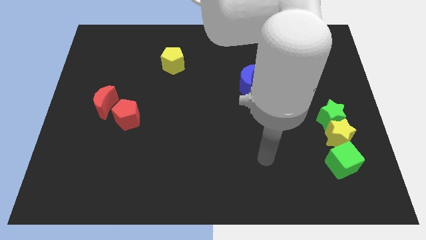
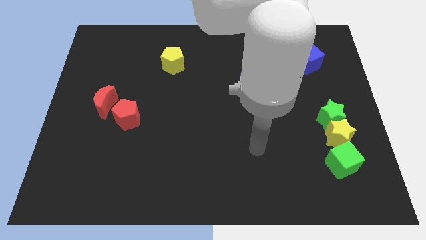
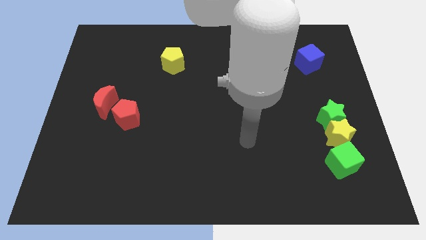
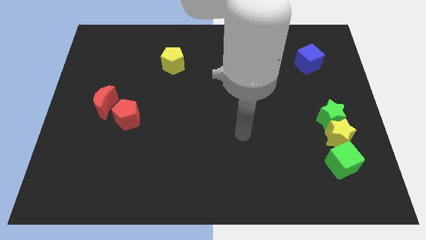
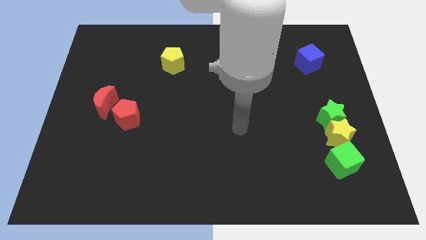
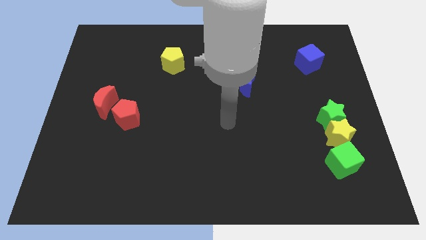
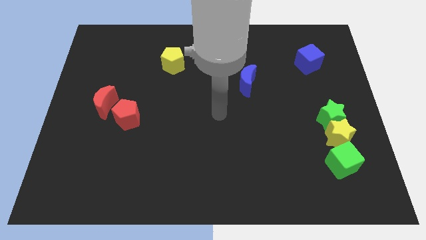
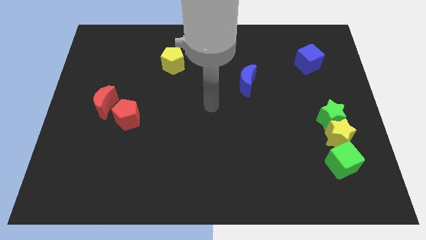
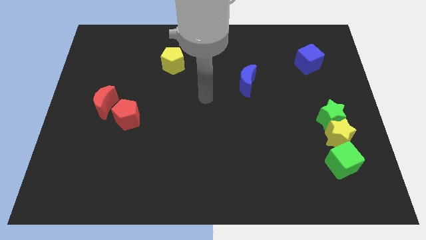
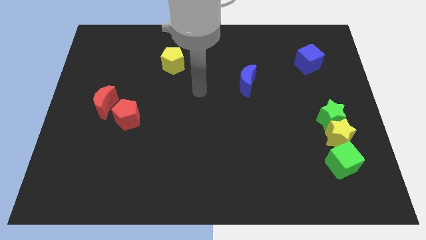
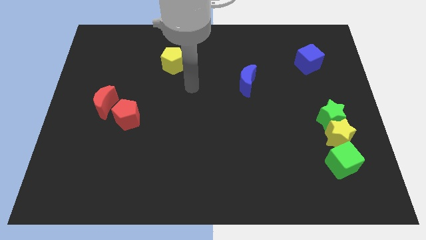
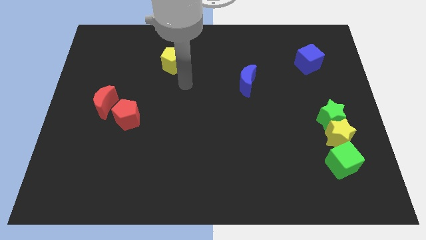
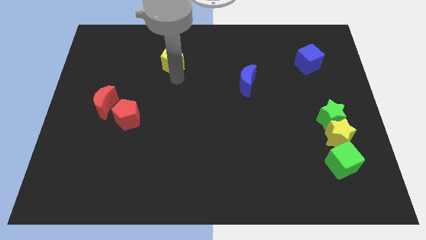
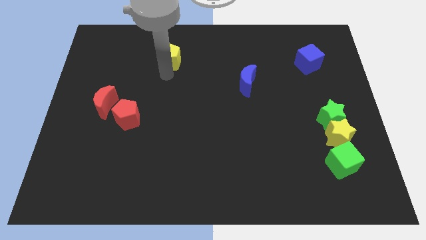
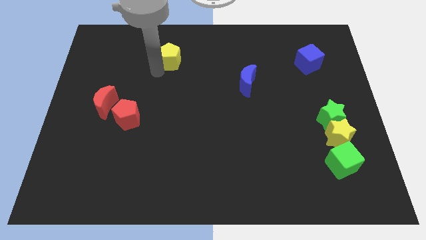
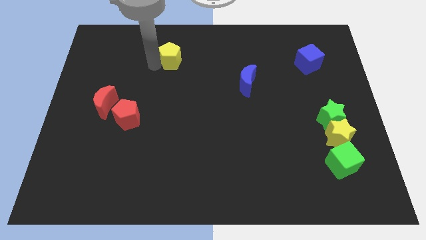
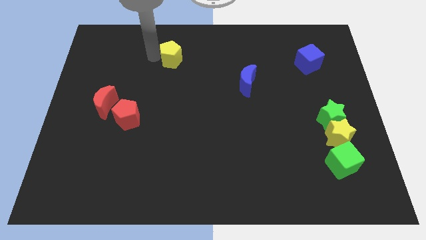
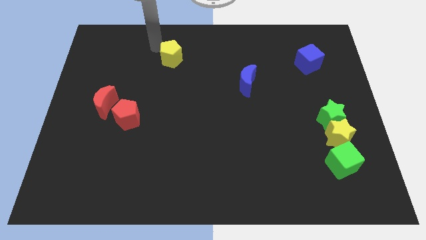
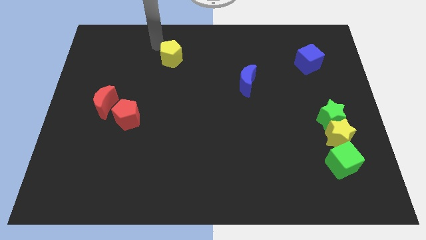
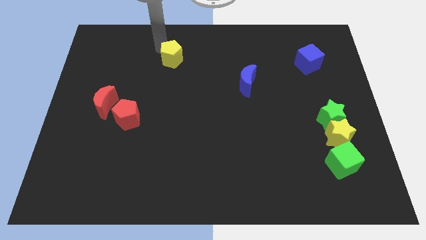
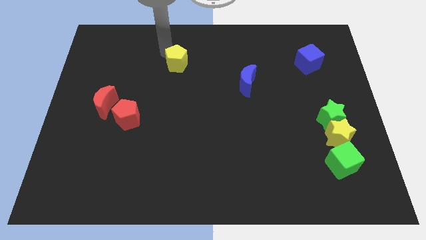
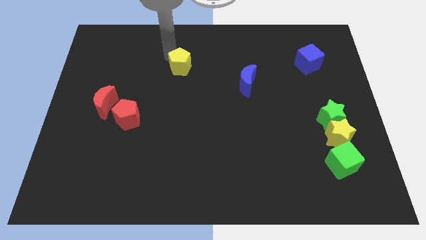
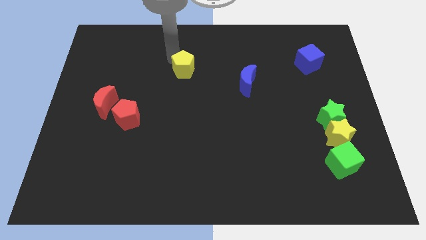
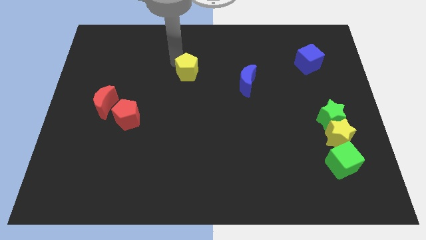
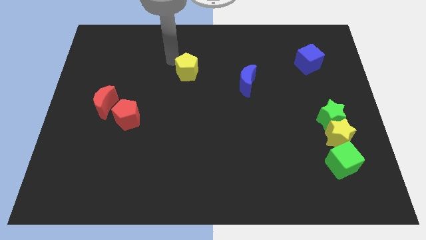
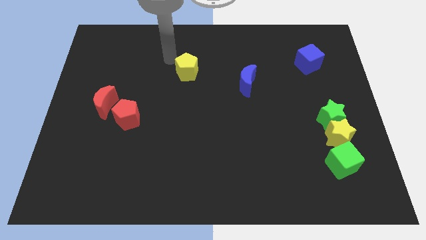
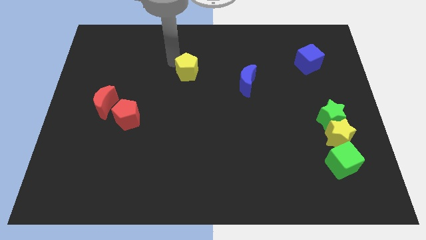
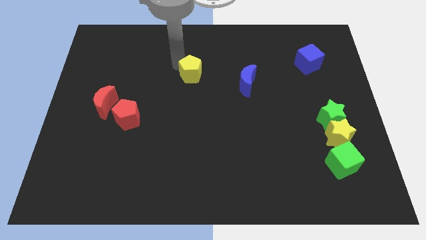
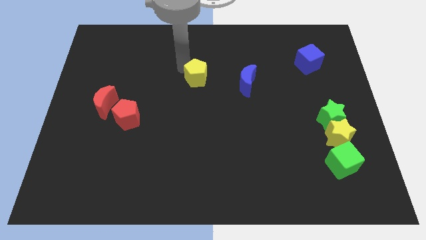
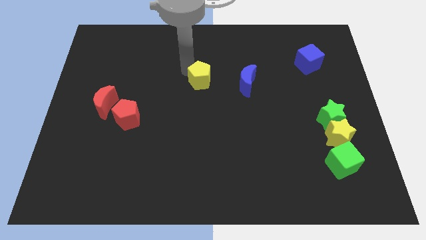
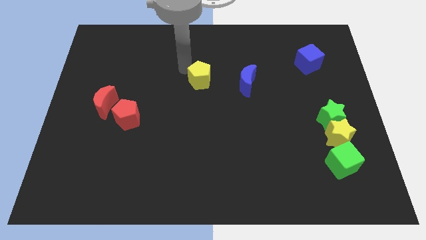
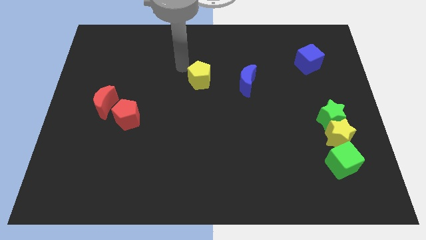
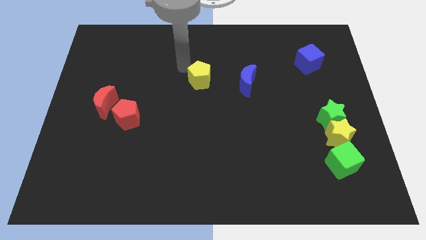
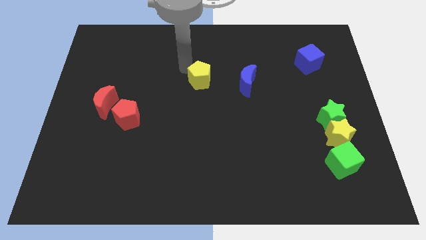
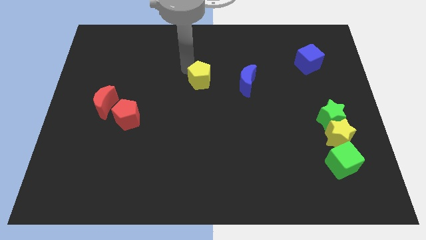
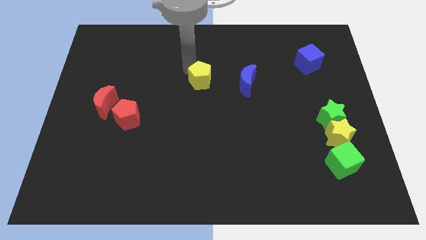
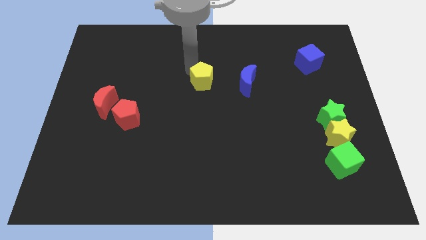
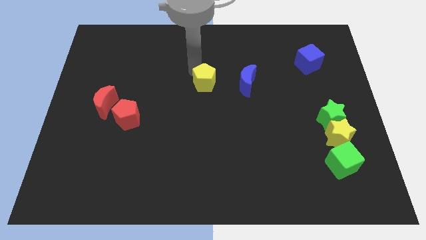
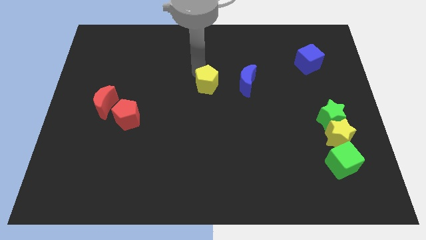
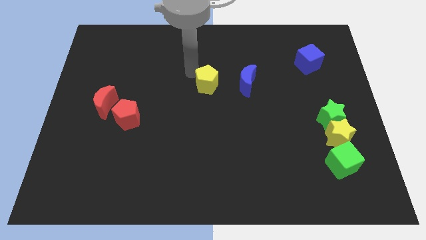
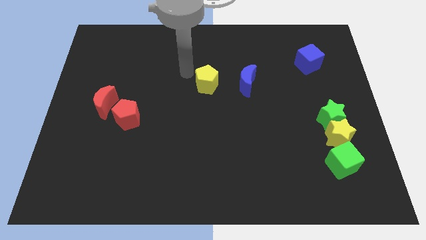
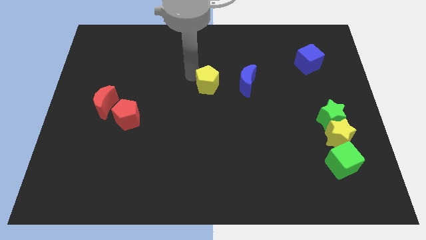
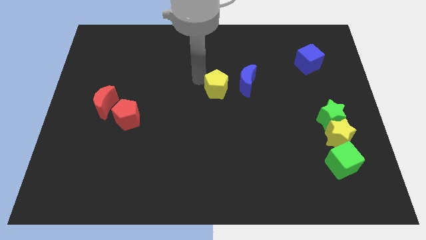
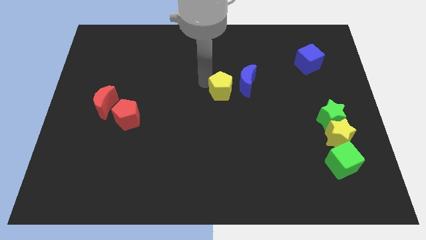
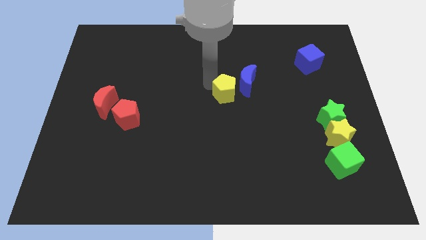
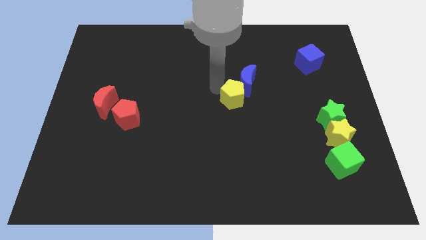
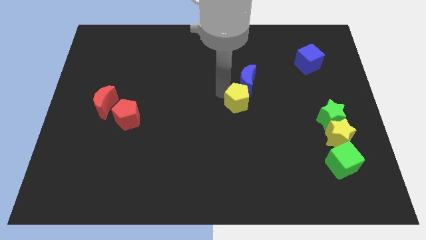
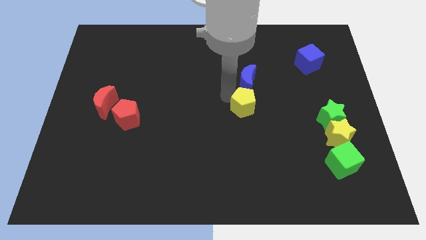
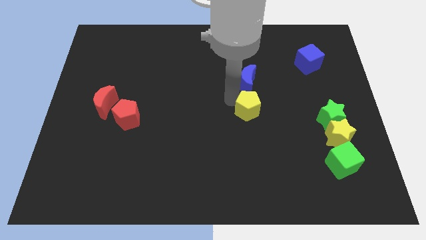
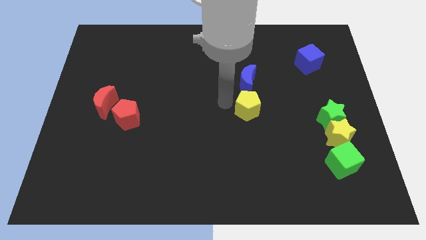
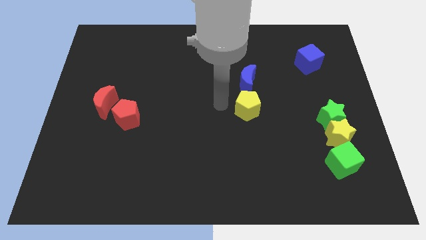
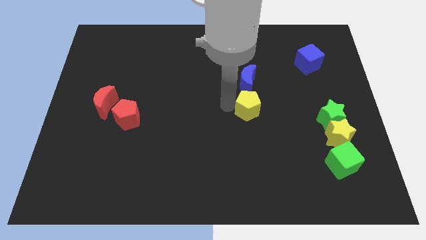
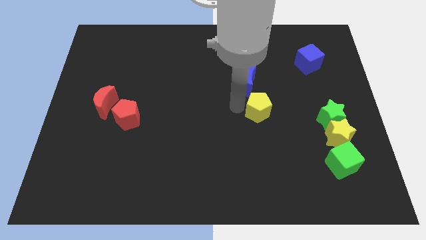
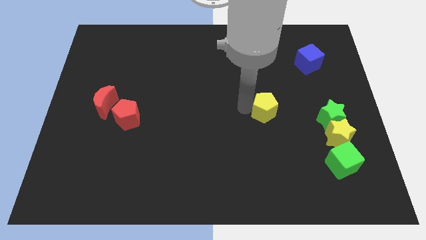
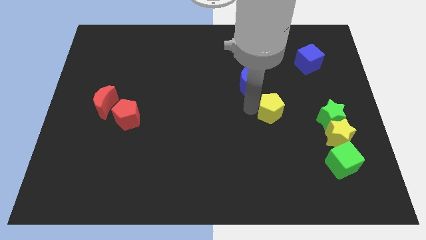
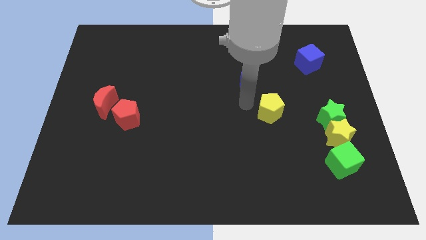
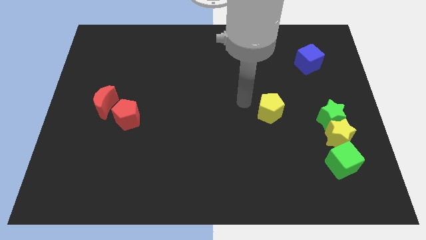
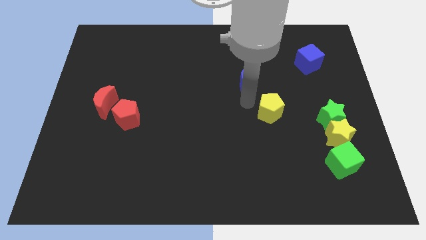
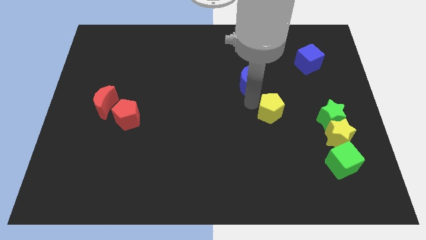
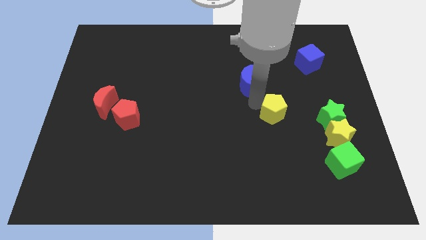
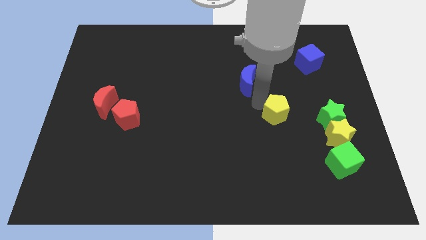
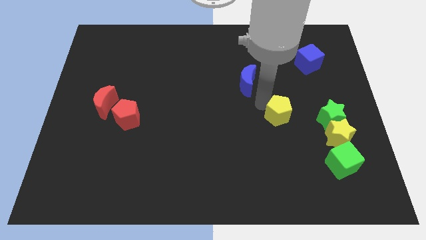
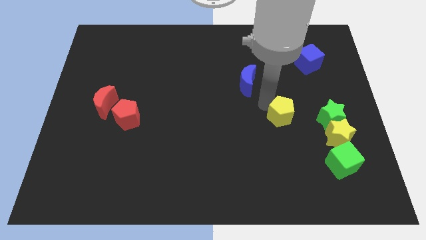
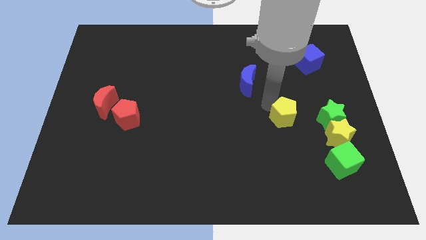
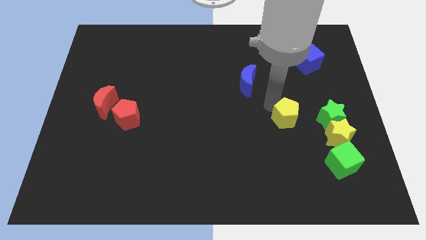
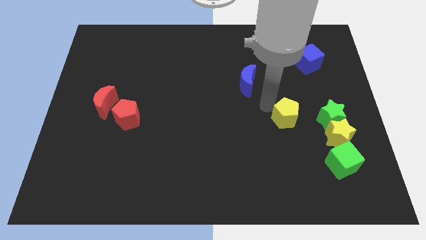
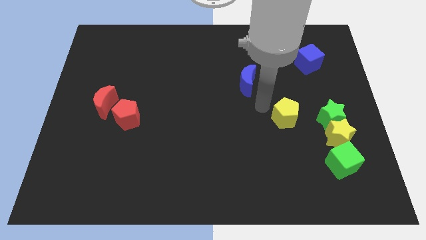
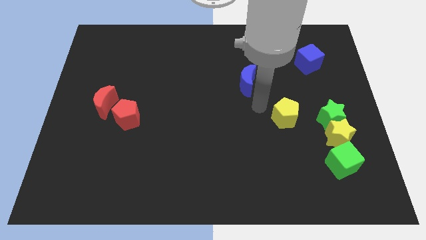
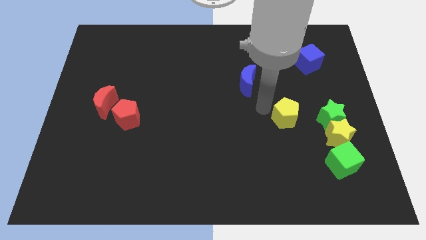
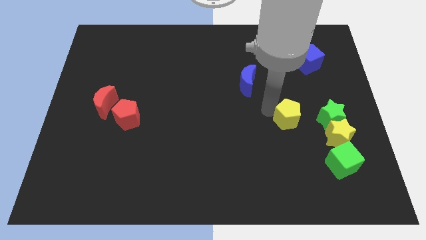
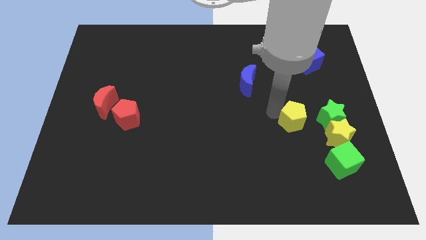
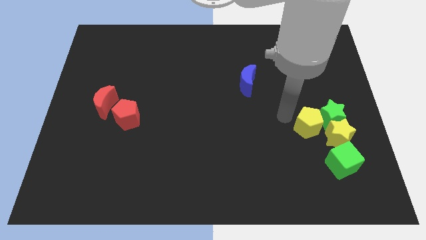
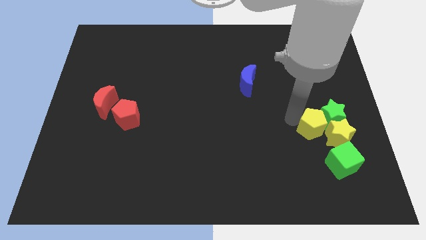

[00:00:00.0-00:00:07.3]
put the yellow pentagon to the yellow star
